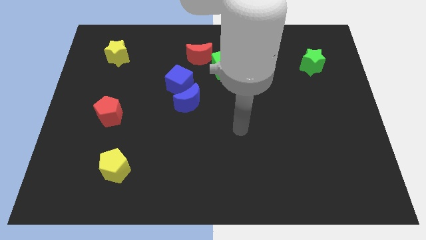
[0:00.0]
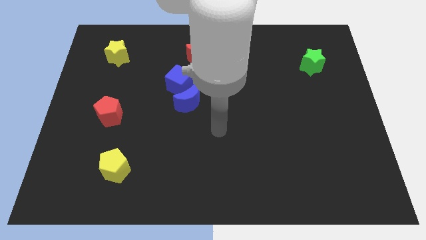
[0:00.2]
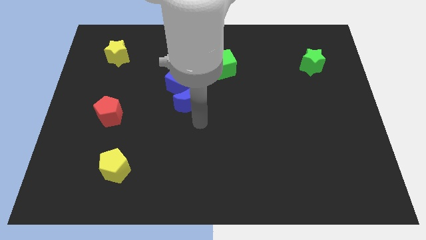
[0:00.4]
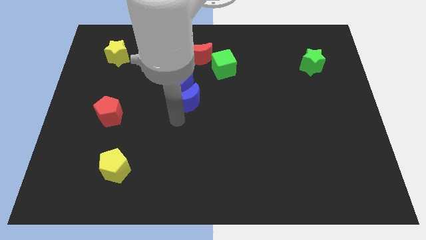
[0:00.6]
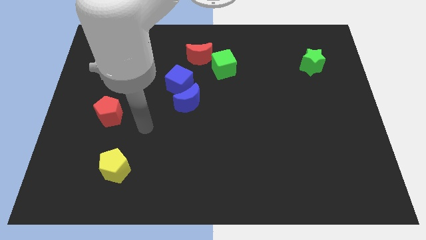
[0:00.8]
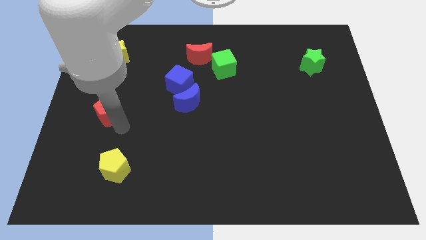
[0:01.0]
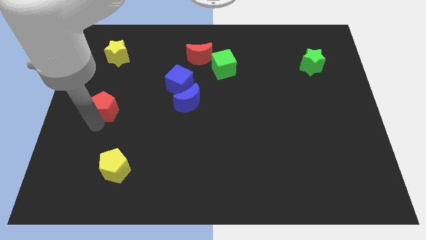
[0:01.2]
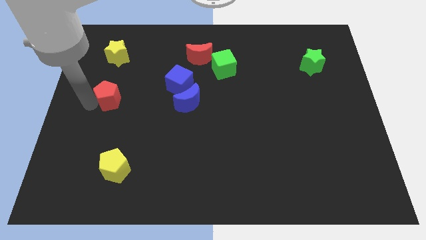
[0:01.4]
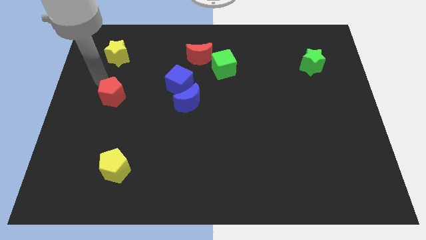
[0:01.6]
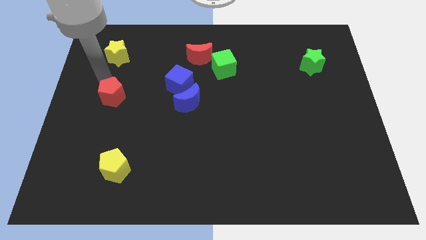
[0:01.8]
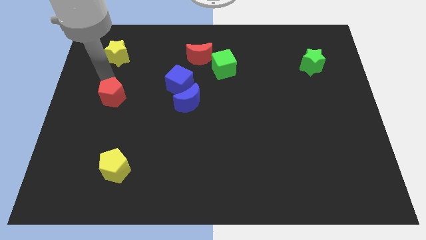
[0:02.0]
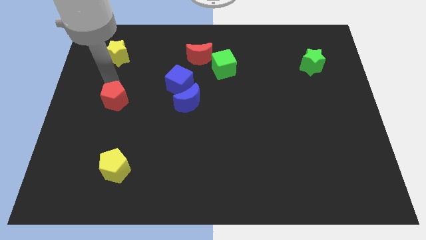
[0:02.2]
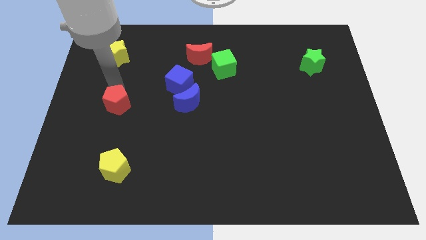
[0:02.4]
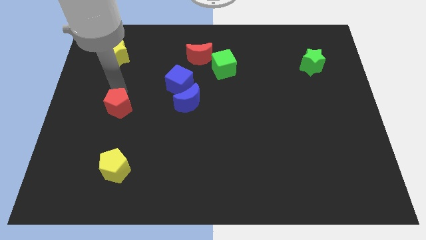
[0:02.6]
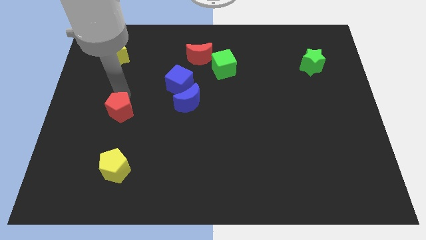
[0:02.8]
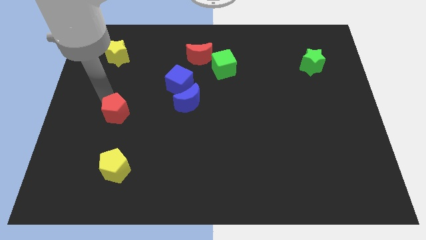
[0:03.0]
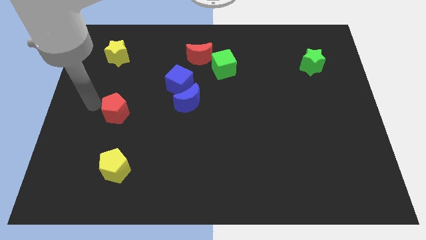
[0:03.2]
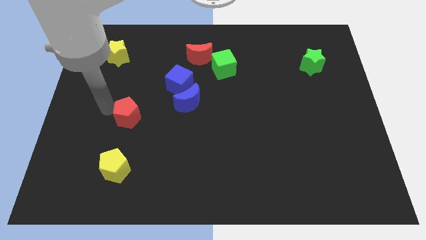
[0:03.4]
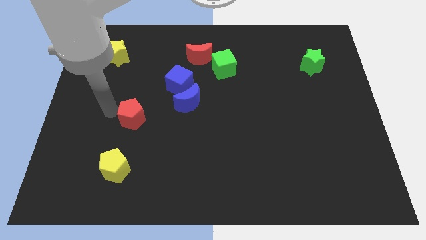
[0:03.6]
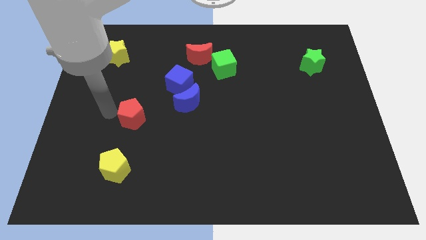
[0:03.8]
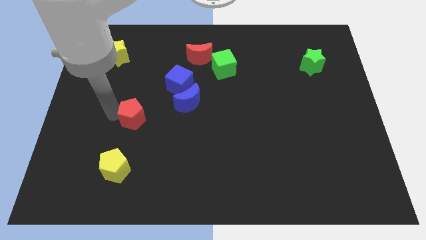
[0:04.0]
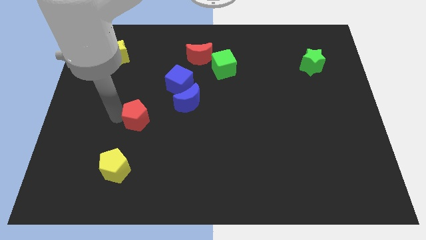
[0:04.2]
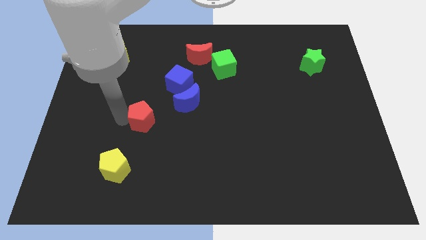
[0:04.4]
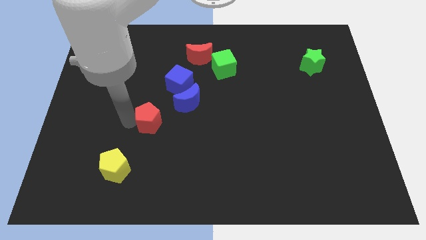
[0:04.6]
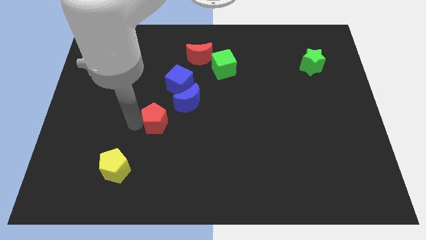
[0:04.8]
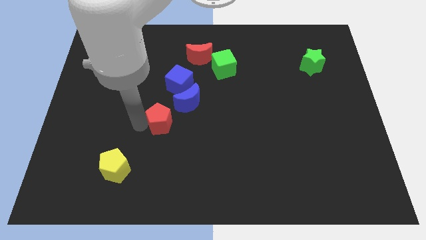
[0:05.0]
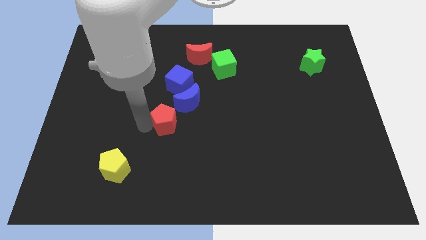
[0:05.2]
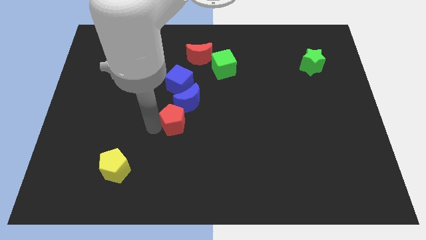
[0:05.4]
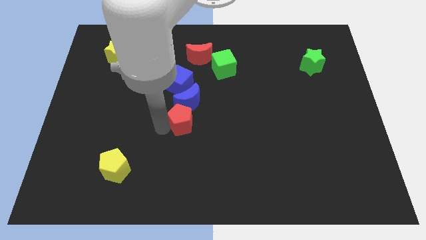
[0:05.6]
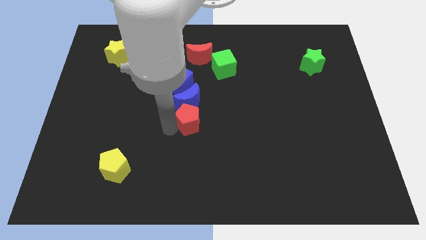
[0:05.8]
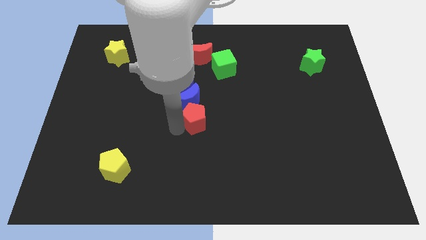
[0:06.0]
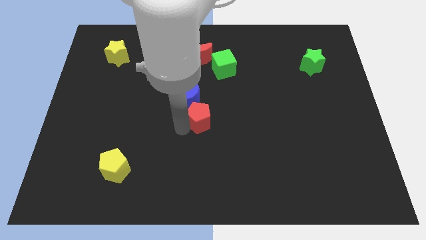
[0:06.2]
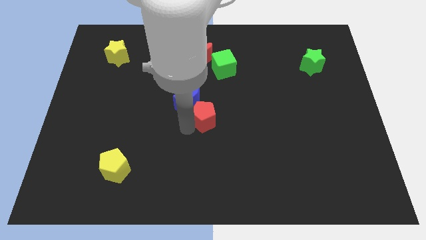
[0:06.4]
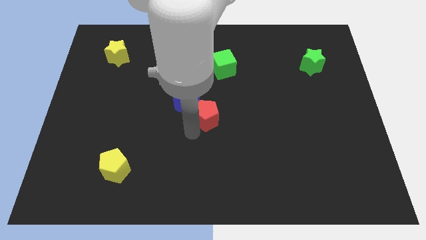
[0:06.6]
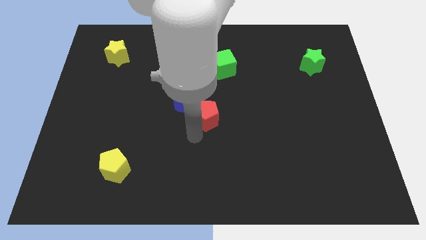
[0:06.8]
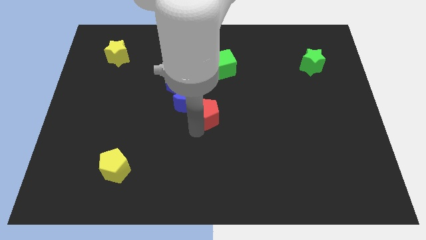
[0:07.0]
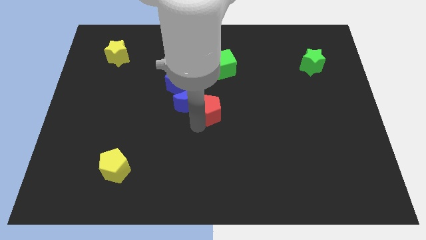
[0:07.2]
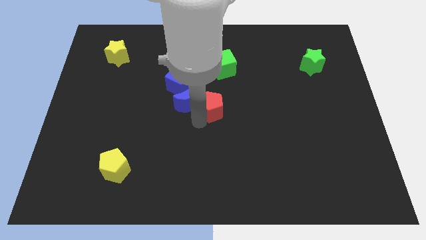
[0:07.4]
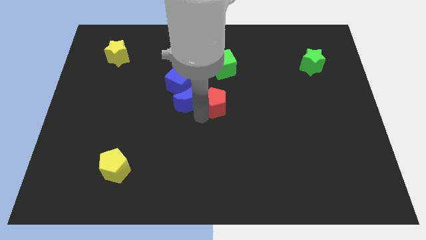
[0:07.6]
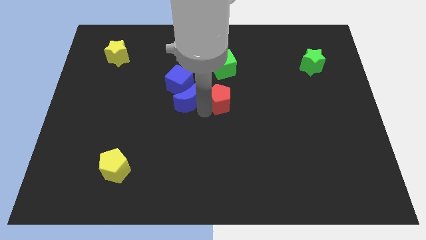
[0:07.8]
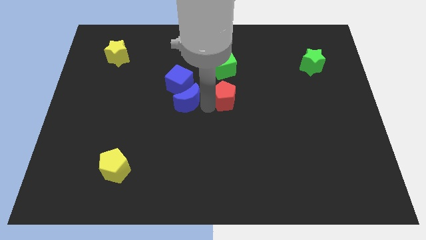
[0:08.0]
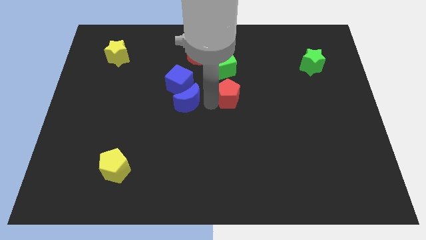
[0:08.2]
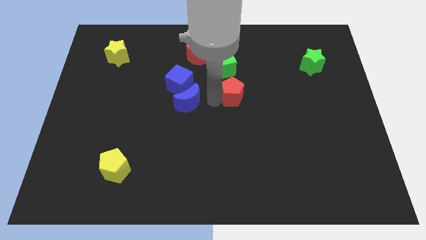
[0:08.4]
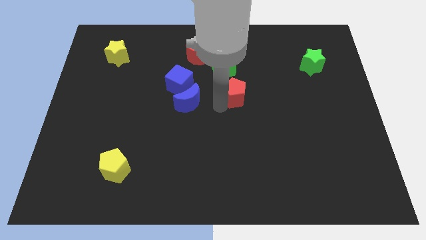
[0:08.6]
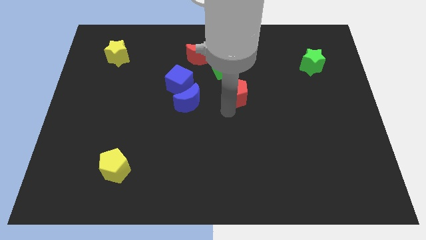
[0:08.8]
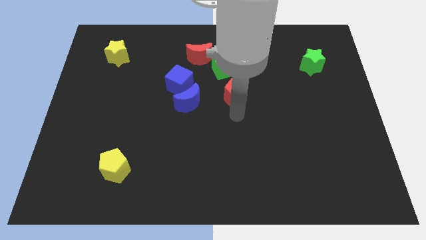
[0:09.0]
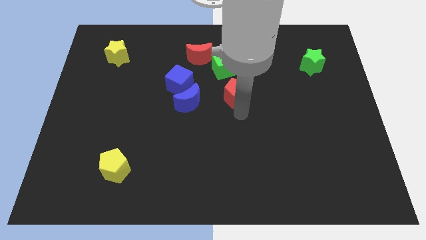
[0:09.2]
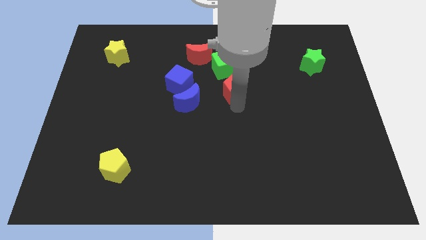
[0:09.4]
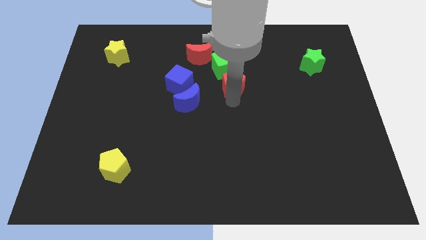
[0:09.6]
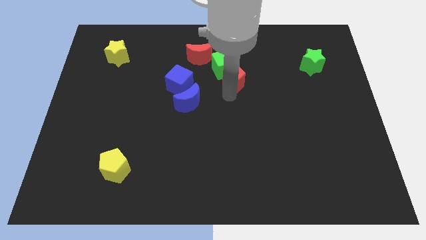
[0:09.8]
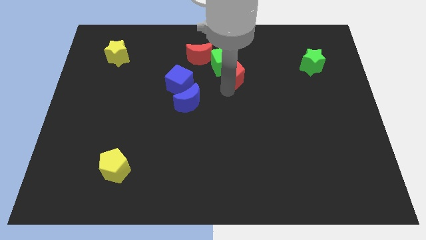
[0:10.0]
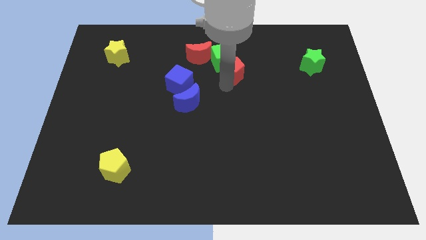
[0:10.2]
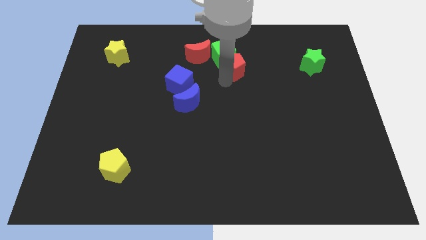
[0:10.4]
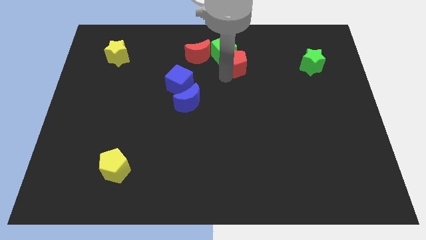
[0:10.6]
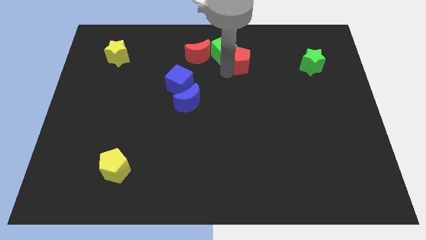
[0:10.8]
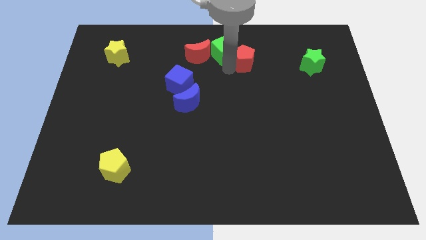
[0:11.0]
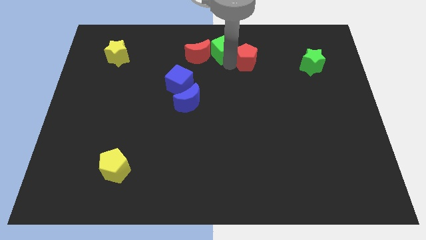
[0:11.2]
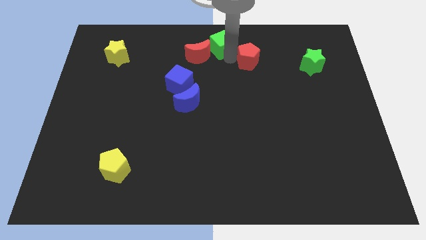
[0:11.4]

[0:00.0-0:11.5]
slide the red pentagon left of the green star
